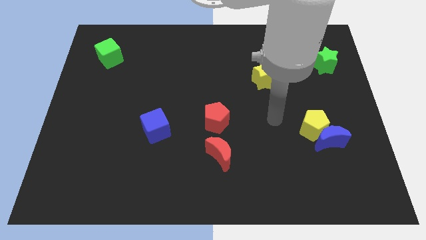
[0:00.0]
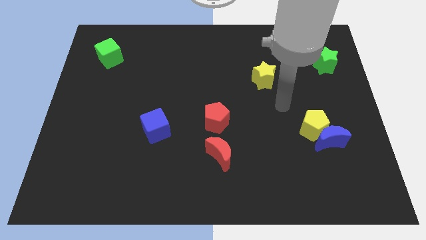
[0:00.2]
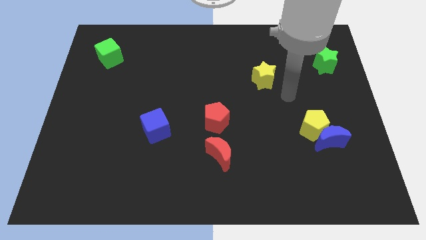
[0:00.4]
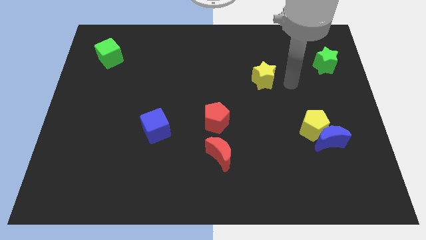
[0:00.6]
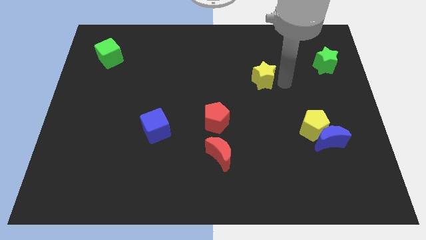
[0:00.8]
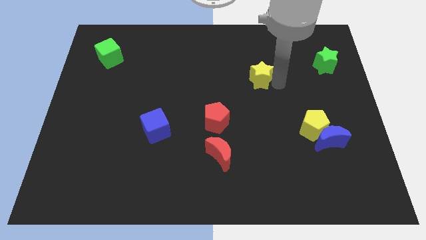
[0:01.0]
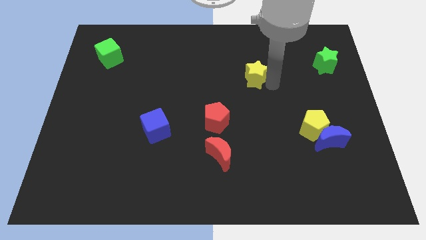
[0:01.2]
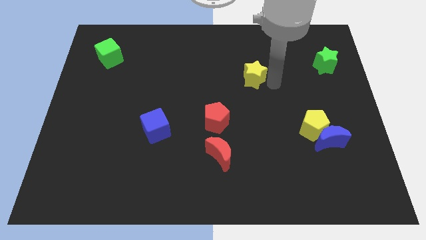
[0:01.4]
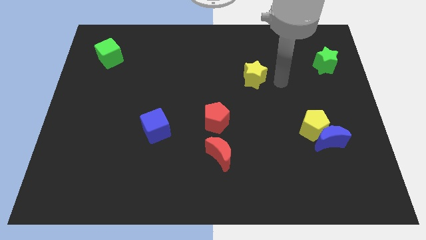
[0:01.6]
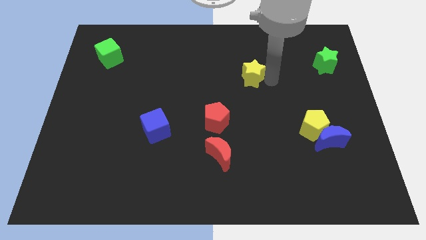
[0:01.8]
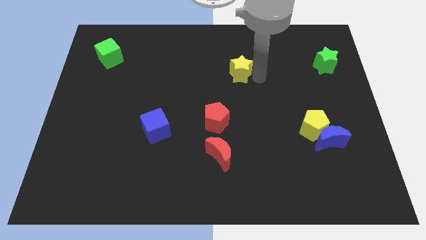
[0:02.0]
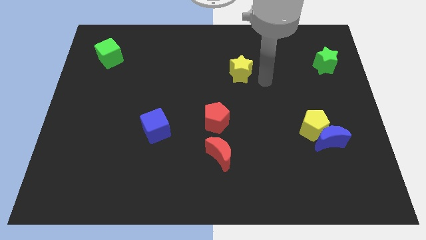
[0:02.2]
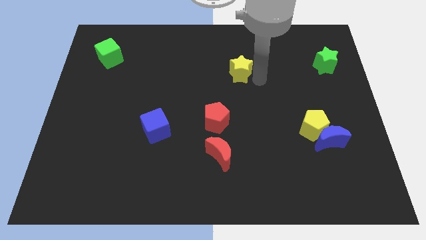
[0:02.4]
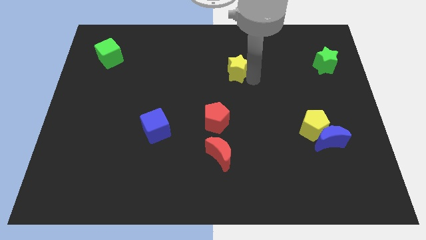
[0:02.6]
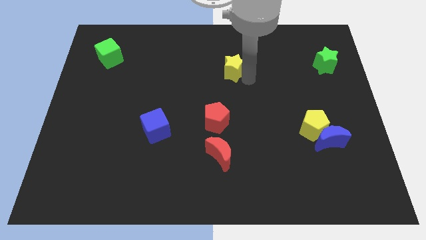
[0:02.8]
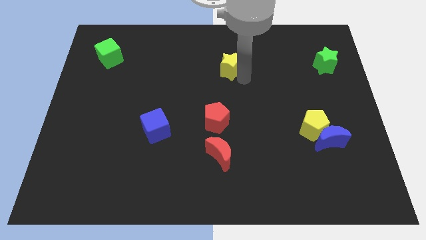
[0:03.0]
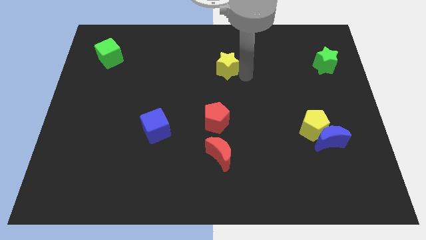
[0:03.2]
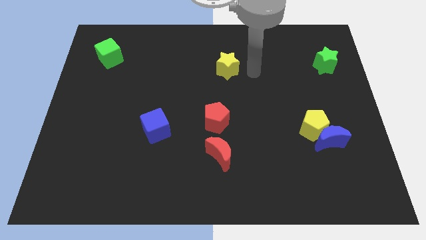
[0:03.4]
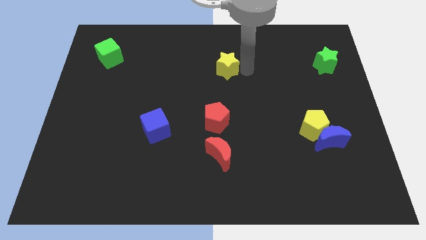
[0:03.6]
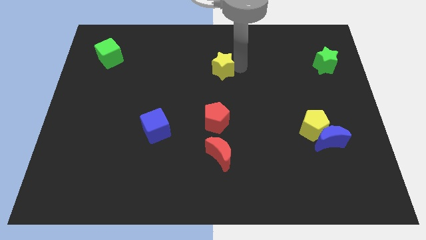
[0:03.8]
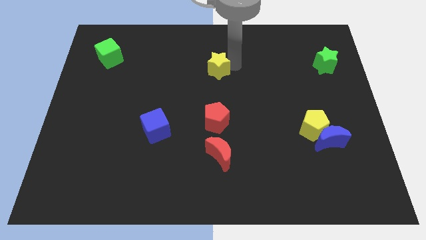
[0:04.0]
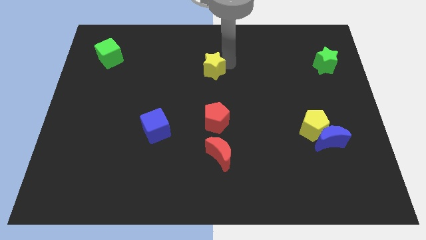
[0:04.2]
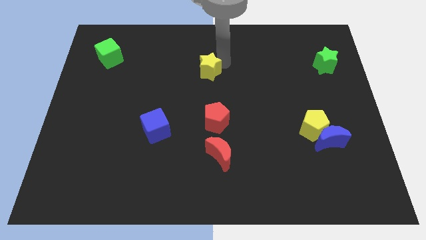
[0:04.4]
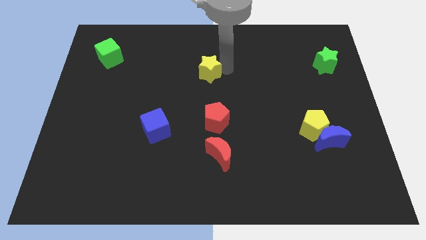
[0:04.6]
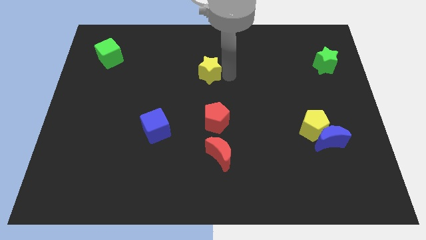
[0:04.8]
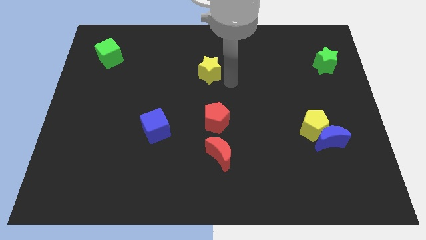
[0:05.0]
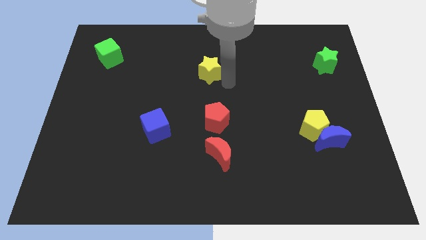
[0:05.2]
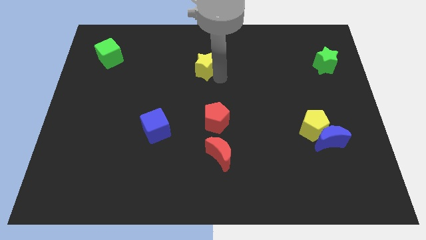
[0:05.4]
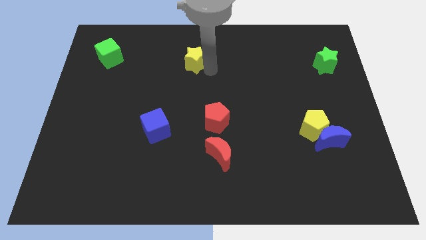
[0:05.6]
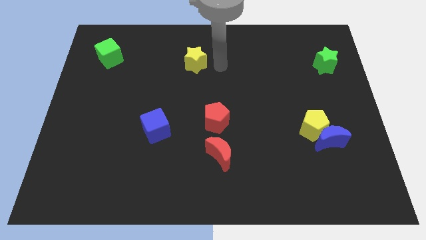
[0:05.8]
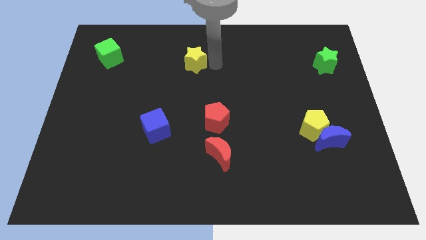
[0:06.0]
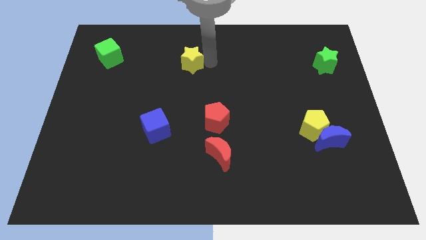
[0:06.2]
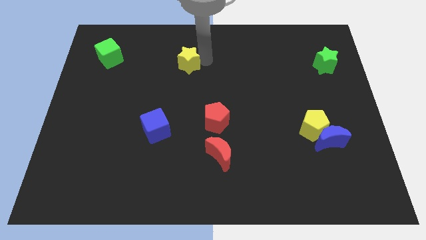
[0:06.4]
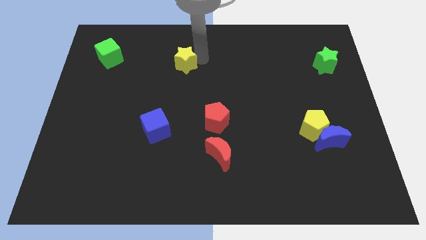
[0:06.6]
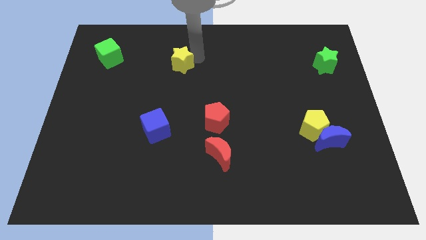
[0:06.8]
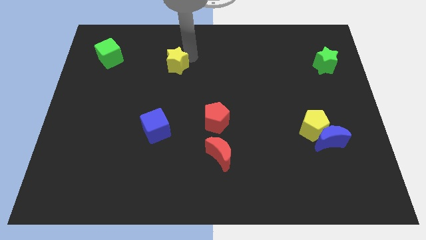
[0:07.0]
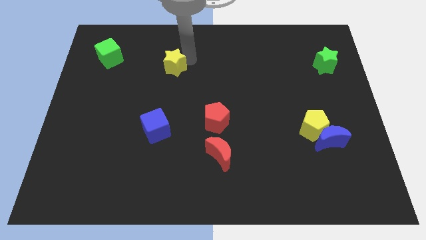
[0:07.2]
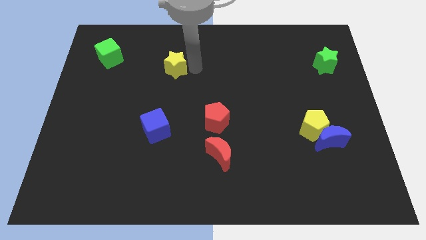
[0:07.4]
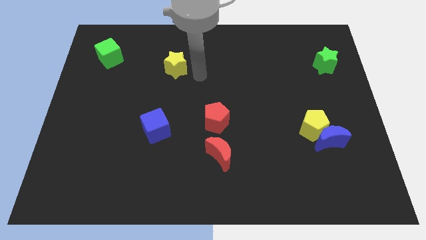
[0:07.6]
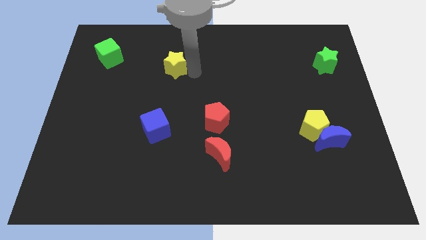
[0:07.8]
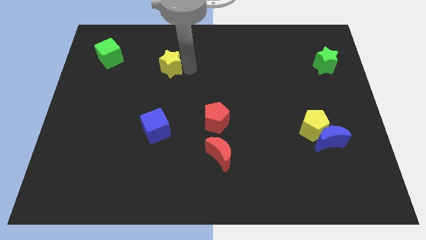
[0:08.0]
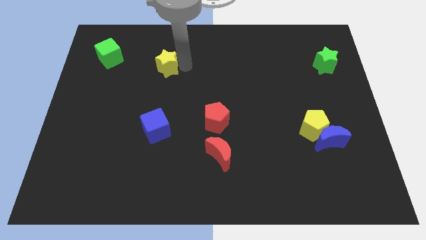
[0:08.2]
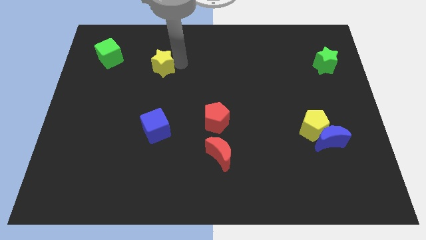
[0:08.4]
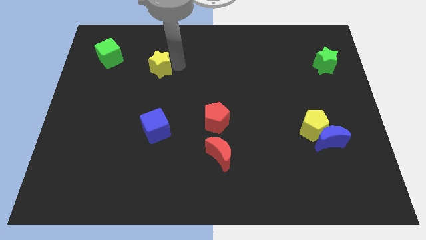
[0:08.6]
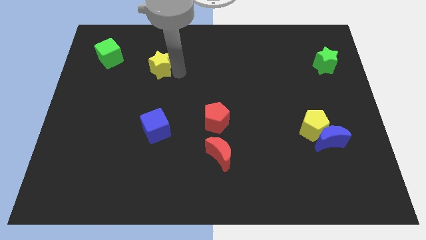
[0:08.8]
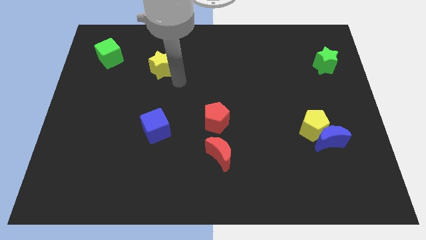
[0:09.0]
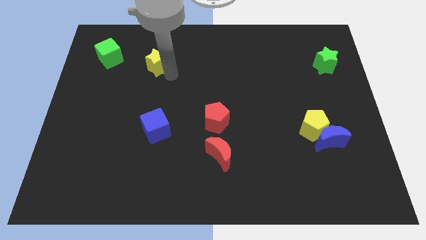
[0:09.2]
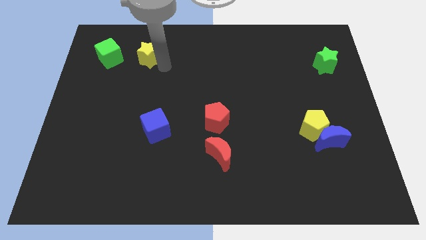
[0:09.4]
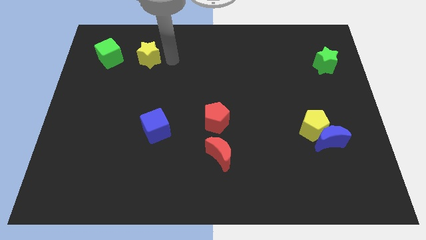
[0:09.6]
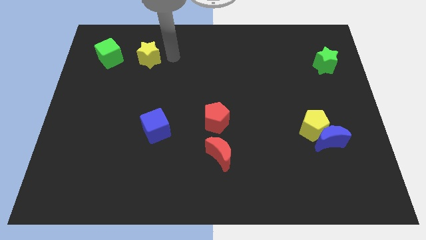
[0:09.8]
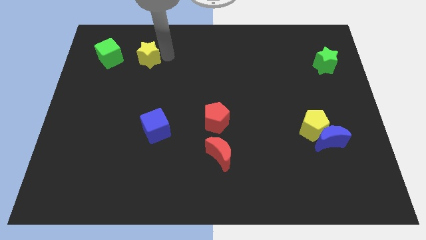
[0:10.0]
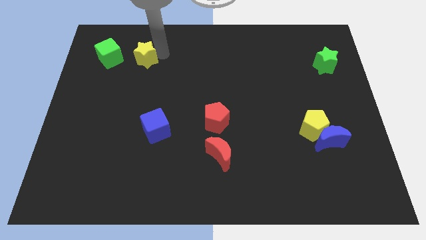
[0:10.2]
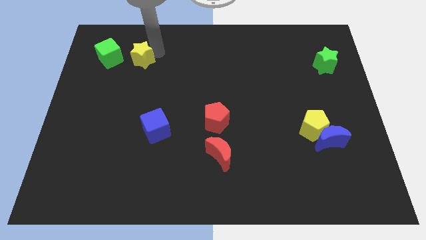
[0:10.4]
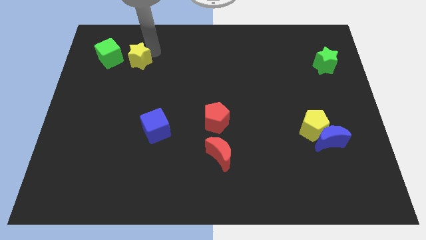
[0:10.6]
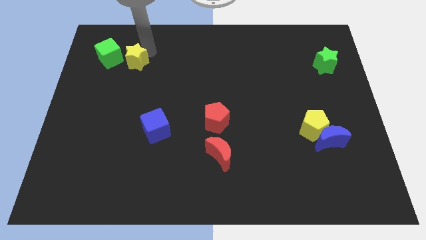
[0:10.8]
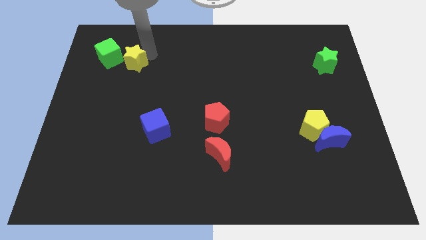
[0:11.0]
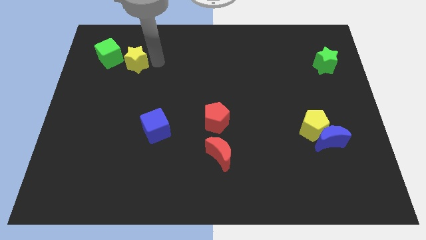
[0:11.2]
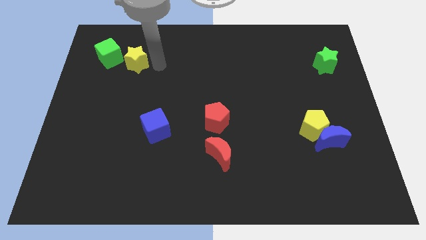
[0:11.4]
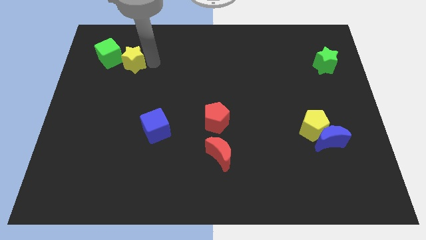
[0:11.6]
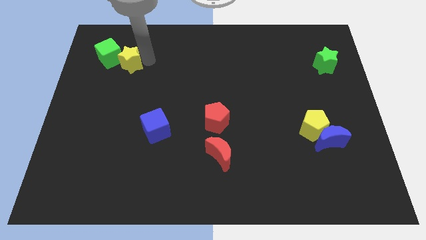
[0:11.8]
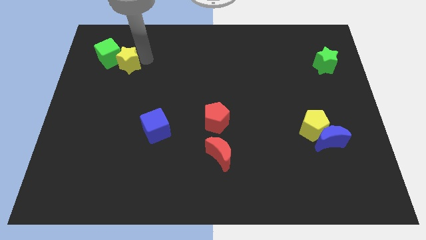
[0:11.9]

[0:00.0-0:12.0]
put the yellow star next to the green cube
